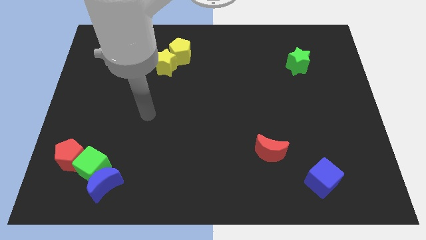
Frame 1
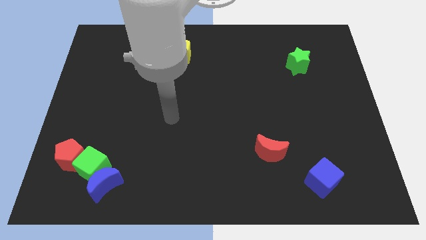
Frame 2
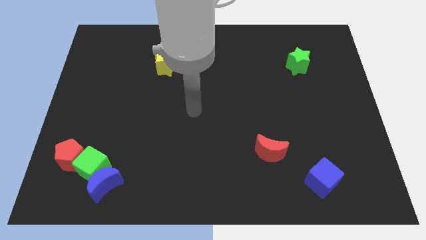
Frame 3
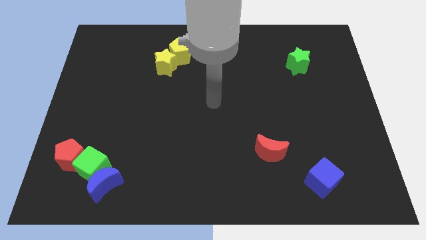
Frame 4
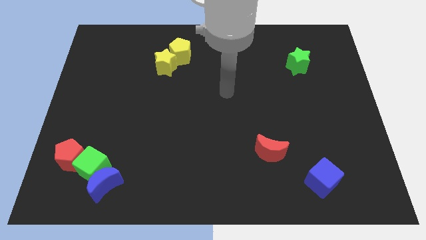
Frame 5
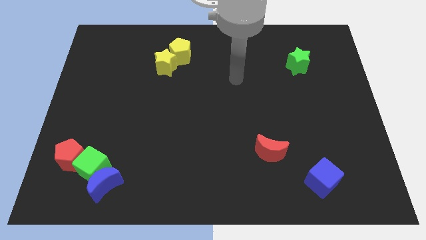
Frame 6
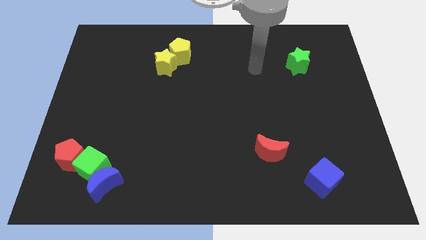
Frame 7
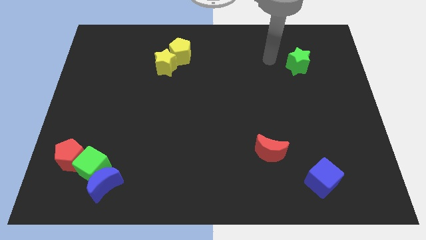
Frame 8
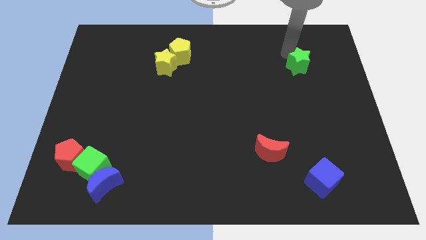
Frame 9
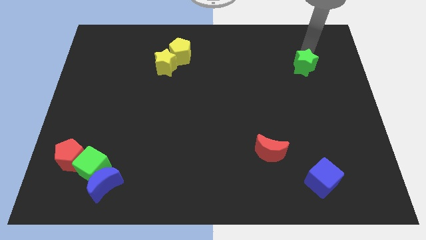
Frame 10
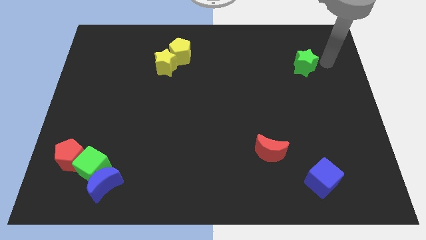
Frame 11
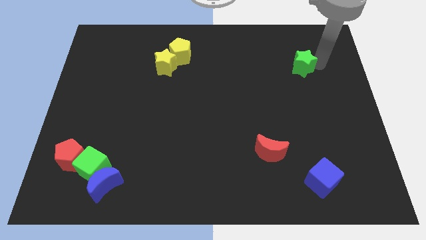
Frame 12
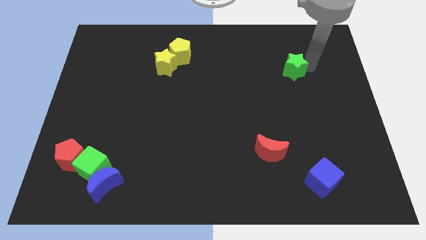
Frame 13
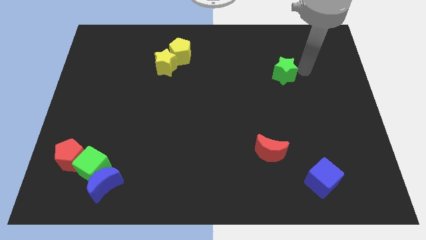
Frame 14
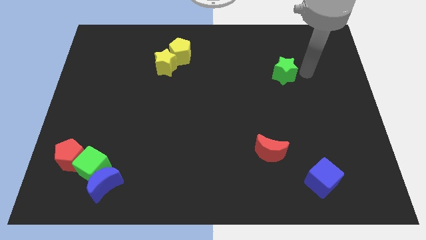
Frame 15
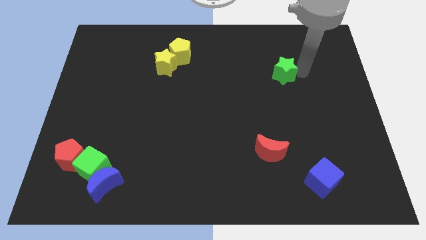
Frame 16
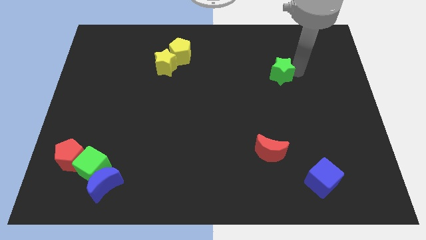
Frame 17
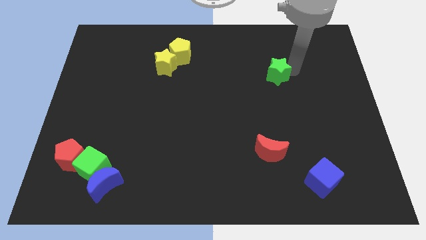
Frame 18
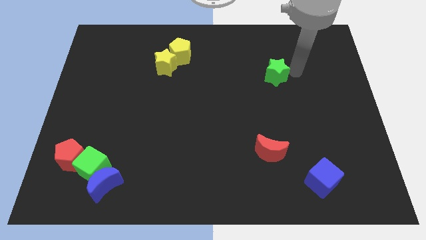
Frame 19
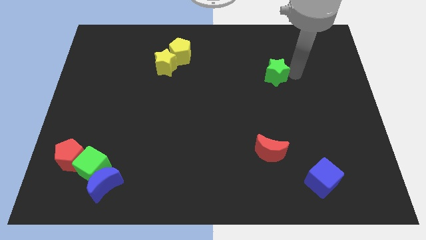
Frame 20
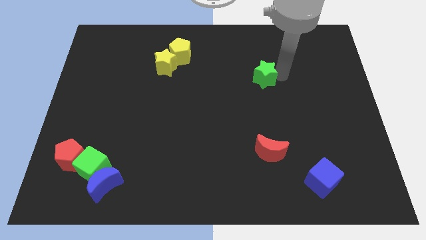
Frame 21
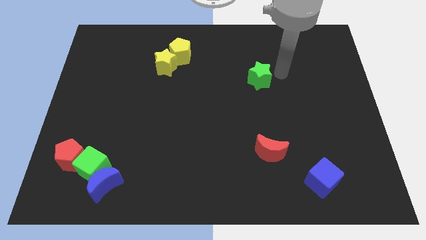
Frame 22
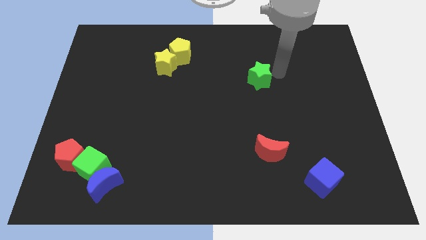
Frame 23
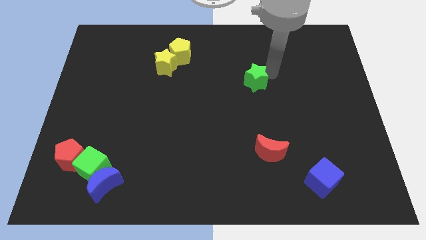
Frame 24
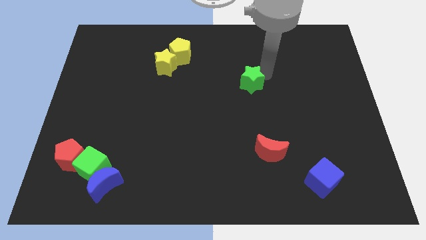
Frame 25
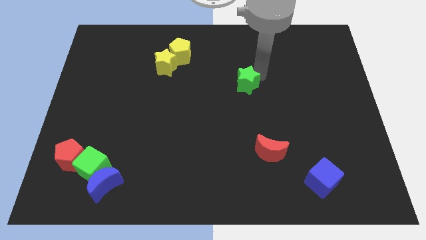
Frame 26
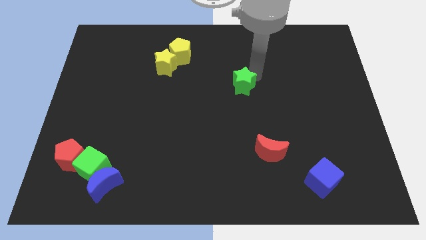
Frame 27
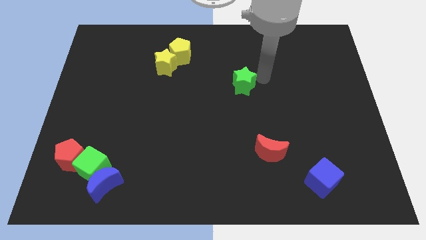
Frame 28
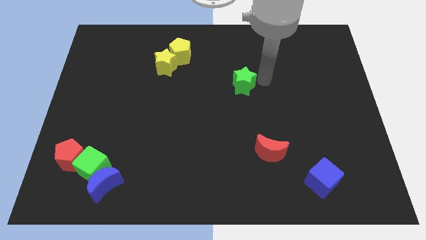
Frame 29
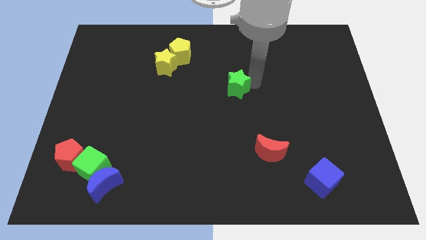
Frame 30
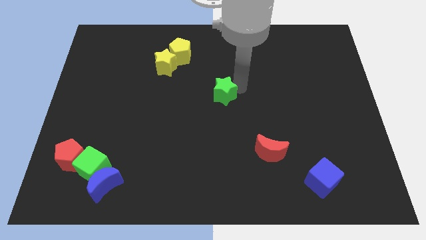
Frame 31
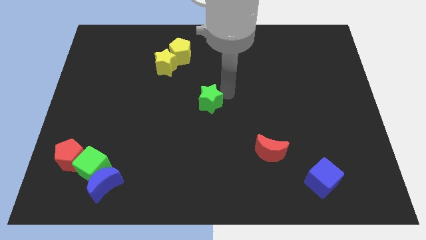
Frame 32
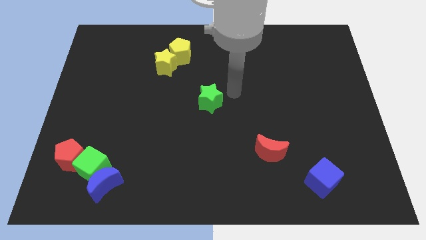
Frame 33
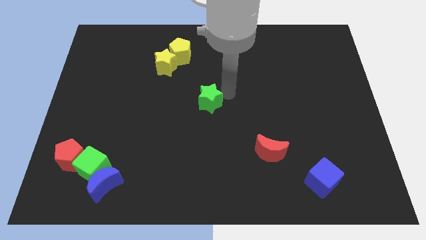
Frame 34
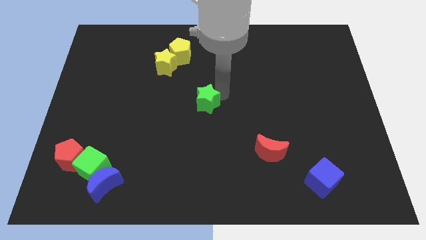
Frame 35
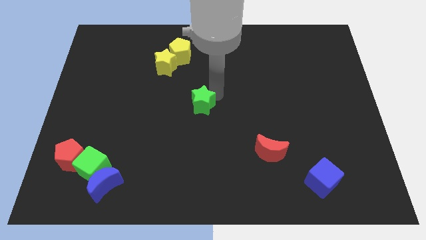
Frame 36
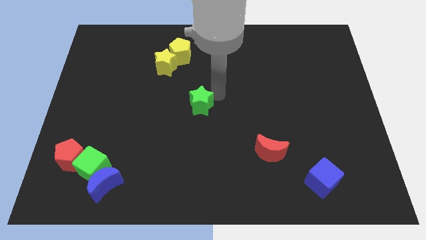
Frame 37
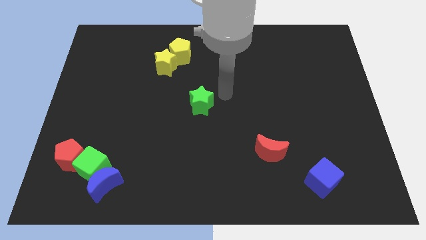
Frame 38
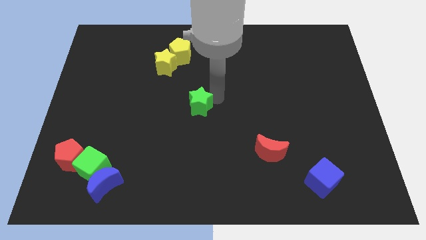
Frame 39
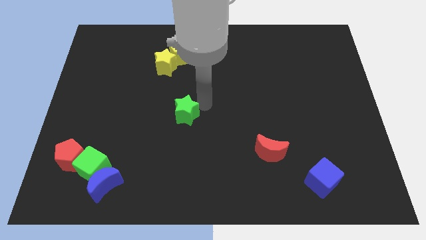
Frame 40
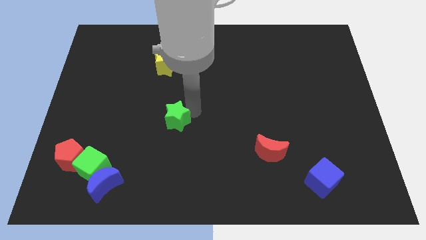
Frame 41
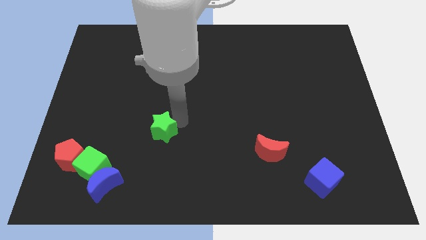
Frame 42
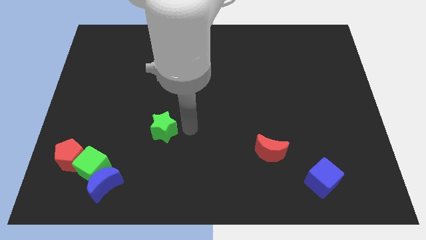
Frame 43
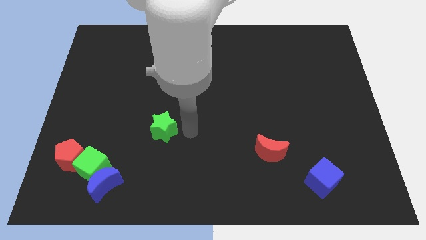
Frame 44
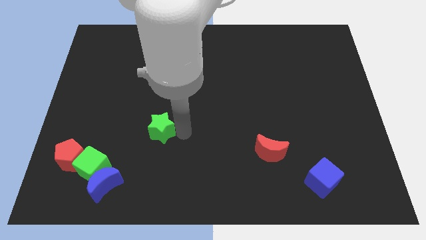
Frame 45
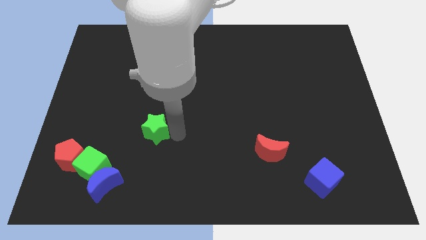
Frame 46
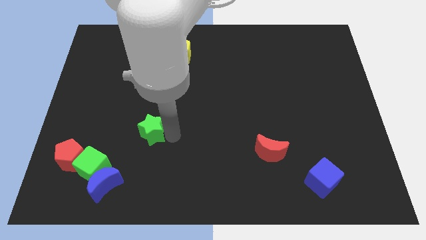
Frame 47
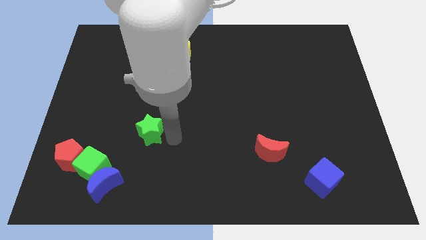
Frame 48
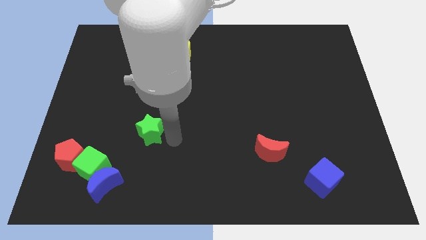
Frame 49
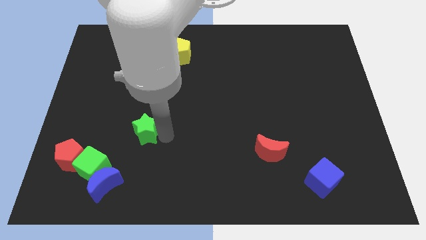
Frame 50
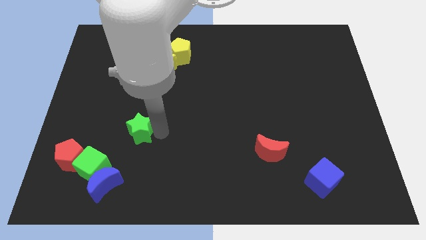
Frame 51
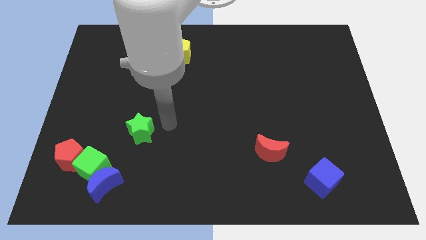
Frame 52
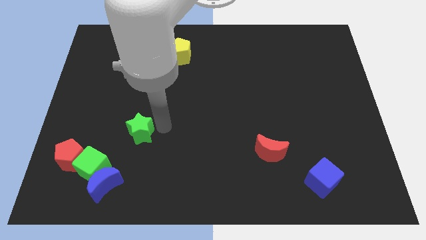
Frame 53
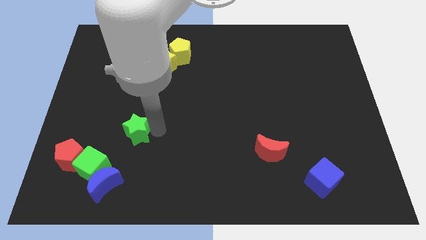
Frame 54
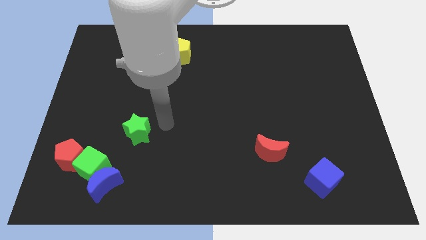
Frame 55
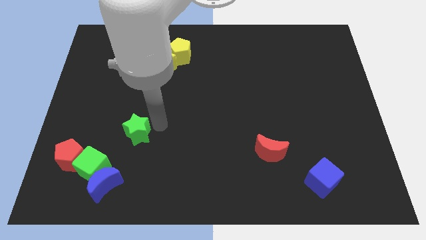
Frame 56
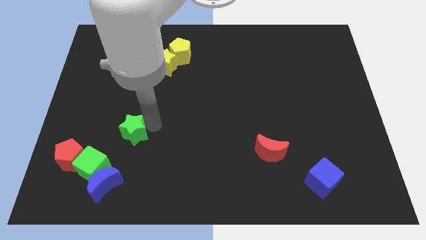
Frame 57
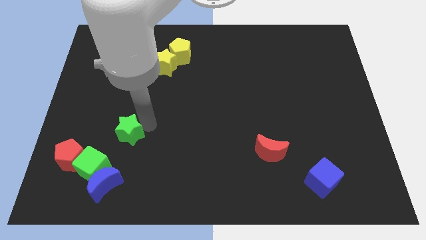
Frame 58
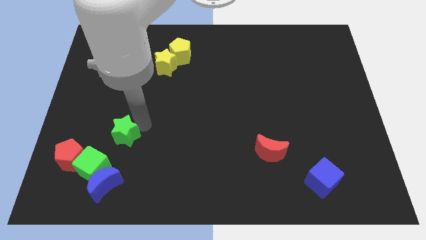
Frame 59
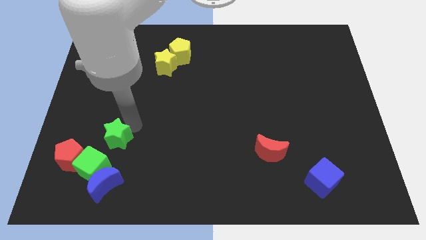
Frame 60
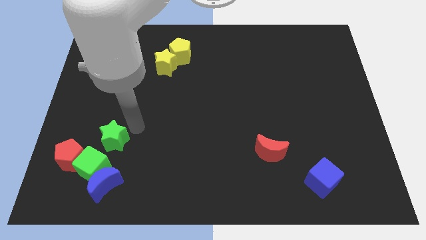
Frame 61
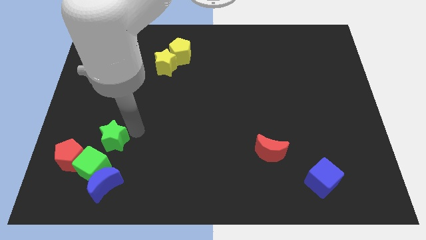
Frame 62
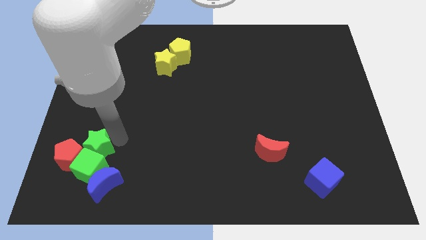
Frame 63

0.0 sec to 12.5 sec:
push the green star towards the red pentagon

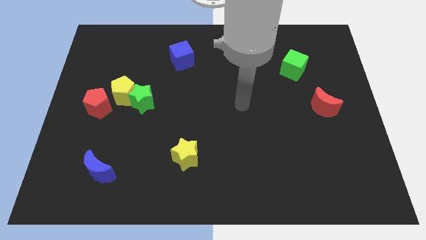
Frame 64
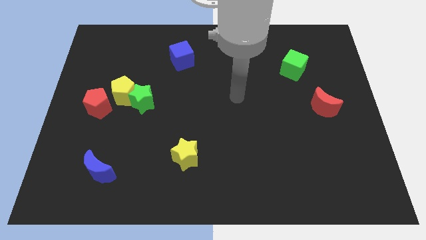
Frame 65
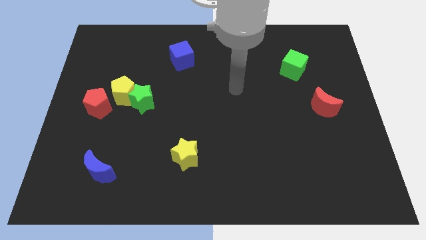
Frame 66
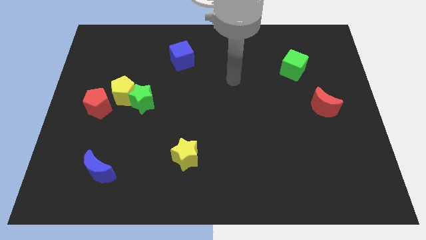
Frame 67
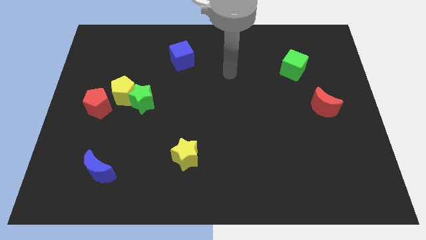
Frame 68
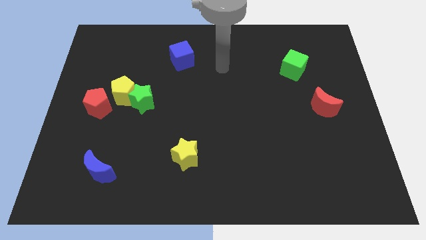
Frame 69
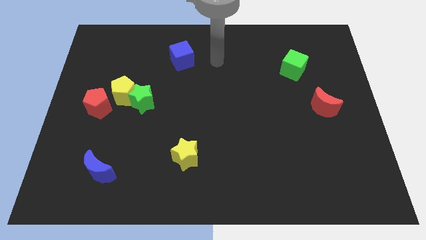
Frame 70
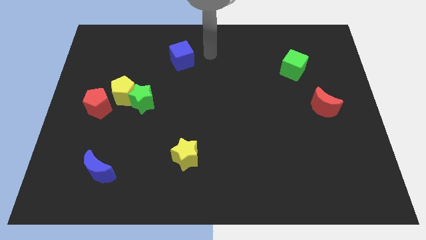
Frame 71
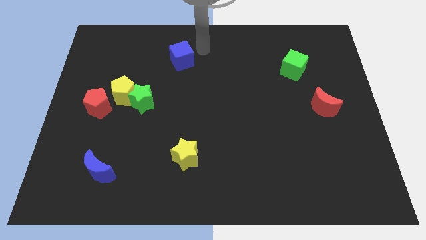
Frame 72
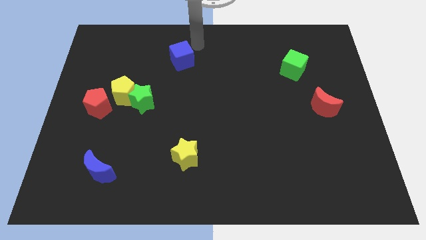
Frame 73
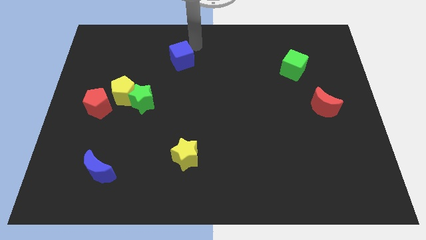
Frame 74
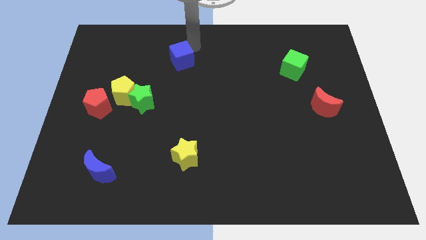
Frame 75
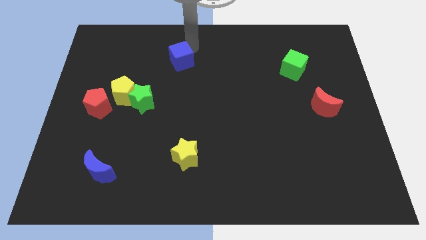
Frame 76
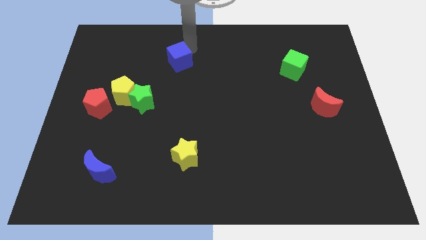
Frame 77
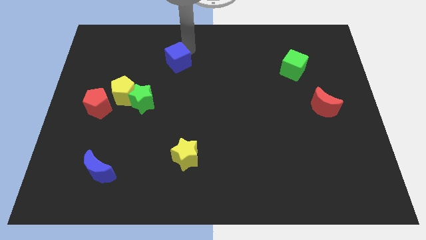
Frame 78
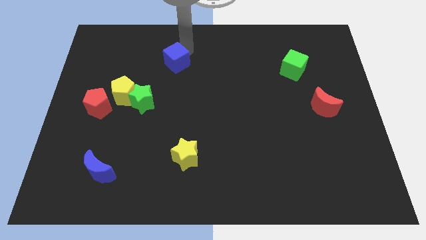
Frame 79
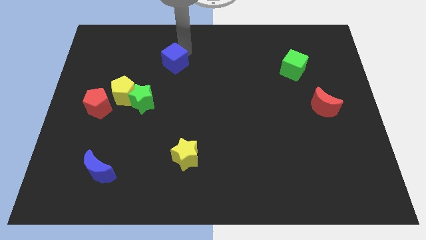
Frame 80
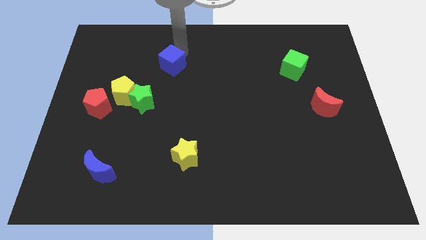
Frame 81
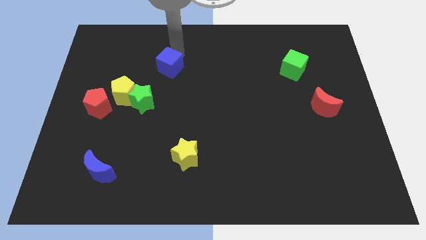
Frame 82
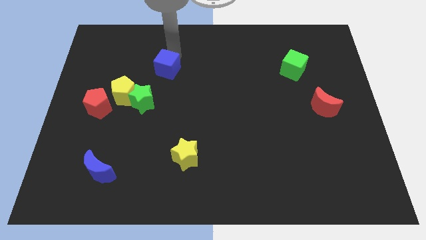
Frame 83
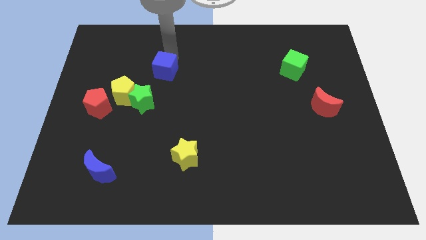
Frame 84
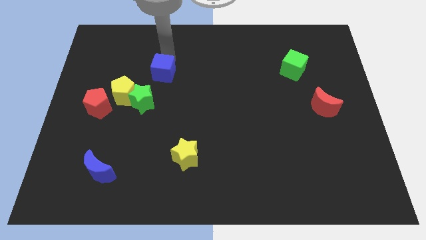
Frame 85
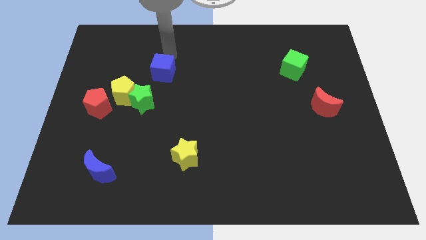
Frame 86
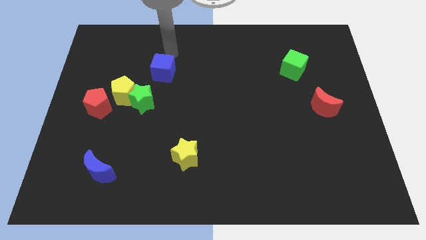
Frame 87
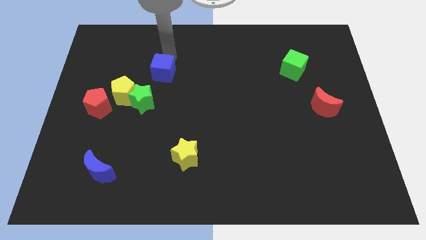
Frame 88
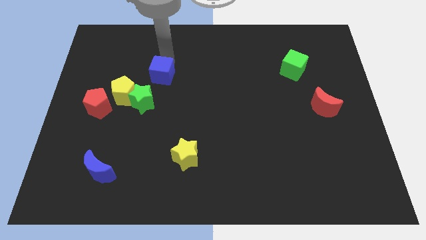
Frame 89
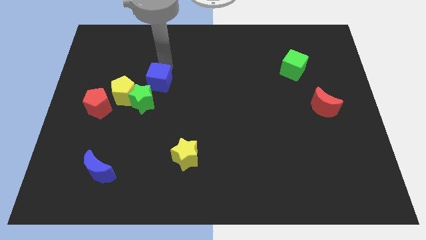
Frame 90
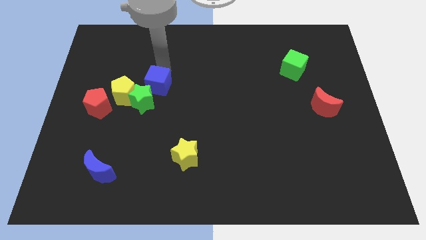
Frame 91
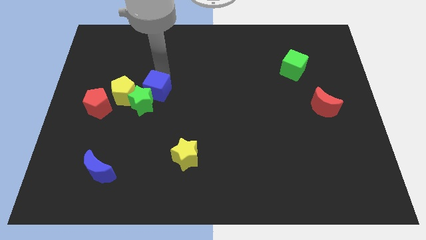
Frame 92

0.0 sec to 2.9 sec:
slide the blue cube next to the green star
